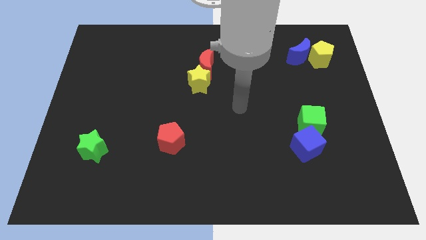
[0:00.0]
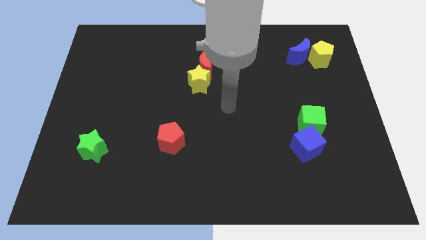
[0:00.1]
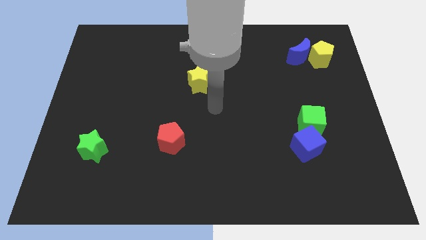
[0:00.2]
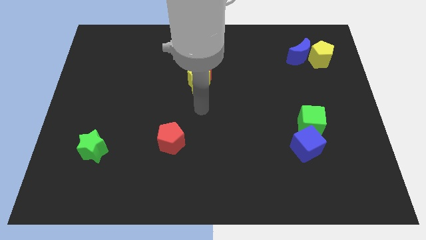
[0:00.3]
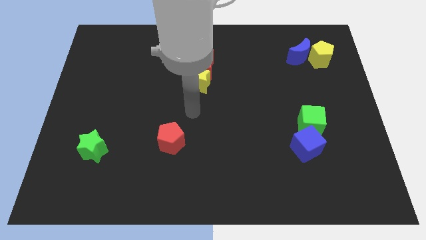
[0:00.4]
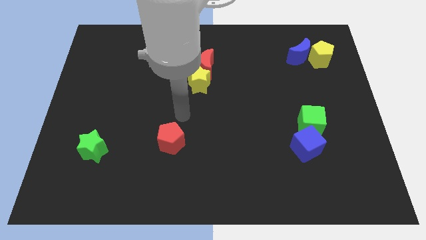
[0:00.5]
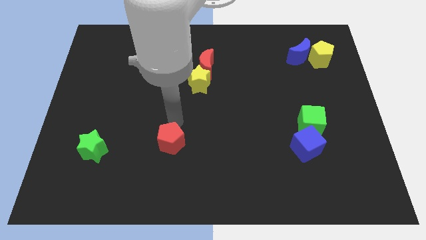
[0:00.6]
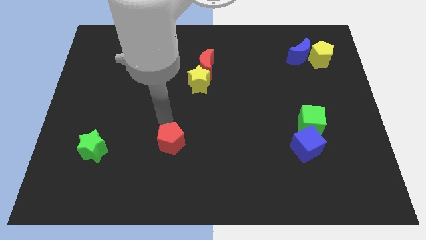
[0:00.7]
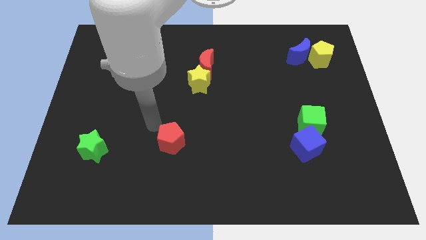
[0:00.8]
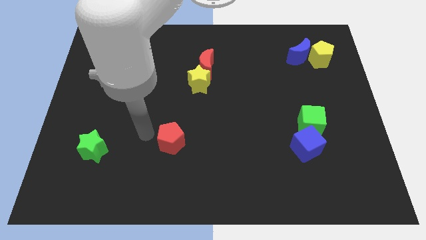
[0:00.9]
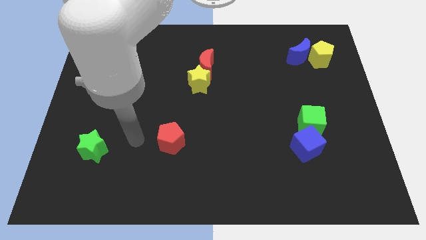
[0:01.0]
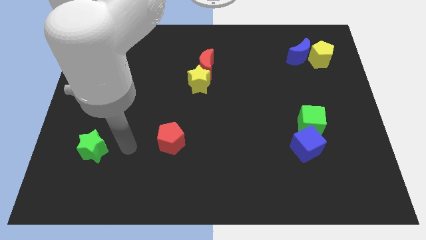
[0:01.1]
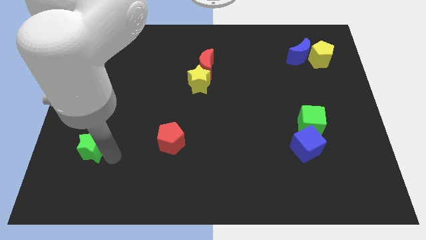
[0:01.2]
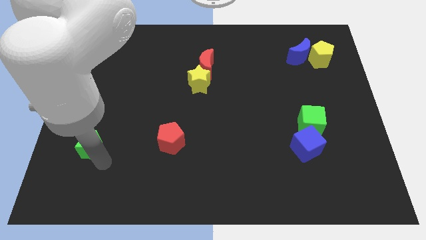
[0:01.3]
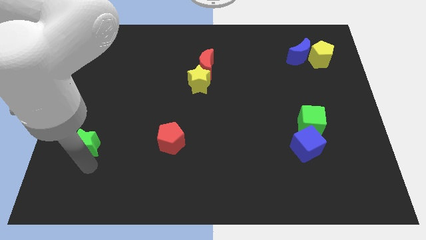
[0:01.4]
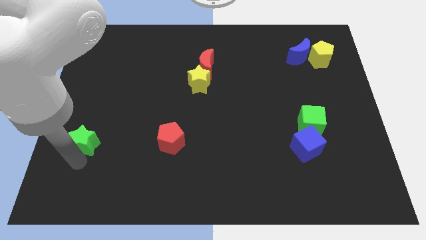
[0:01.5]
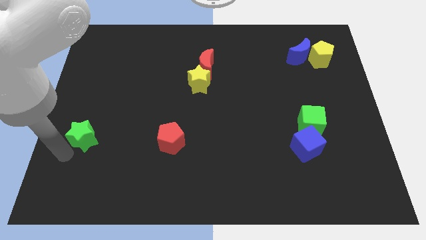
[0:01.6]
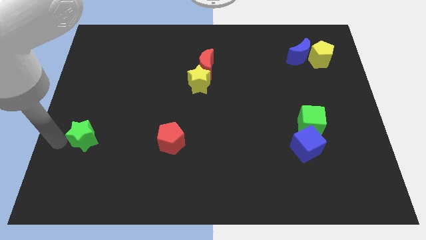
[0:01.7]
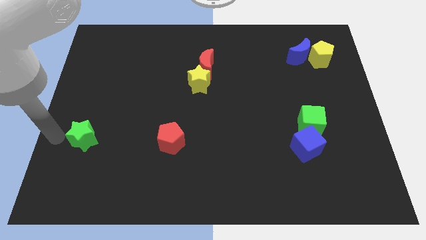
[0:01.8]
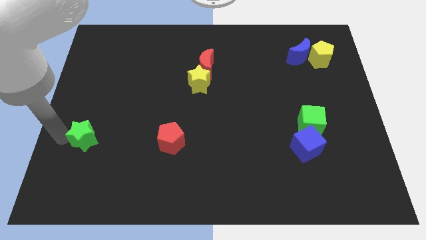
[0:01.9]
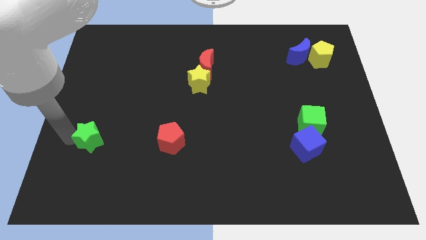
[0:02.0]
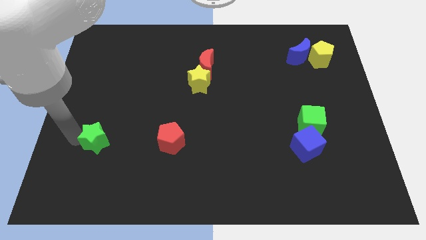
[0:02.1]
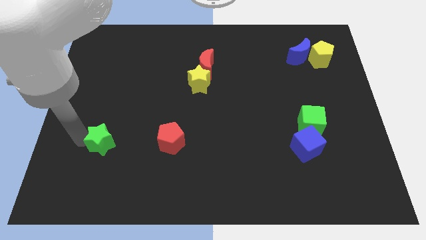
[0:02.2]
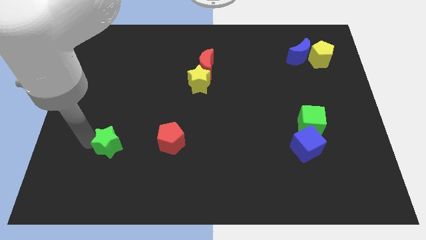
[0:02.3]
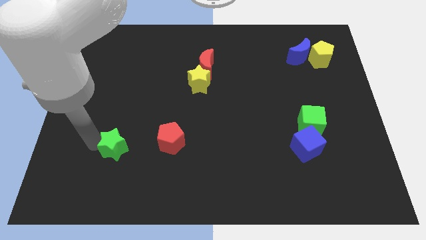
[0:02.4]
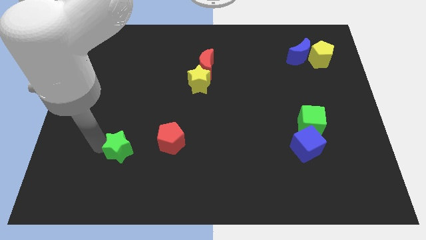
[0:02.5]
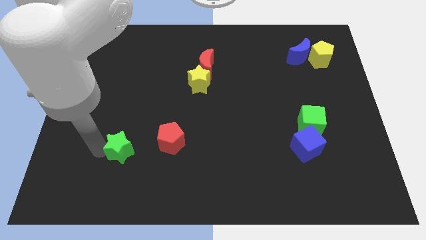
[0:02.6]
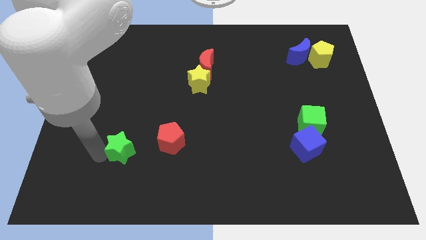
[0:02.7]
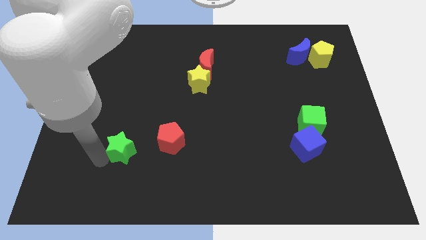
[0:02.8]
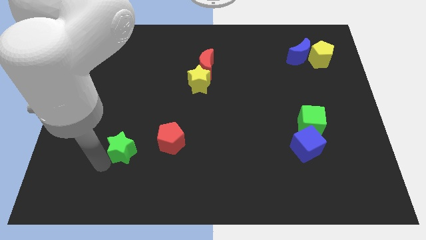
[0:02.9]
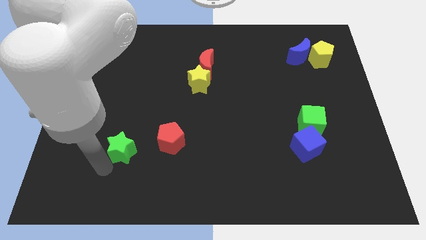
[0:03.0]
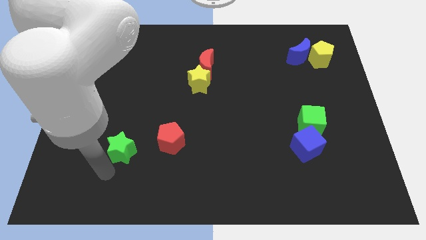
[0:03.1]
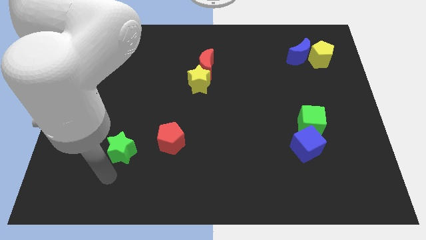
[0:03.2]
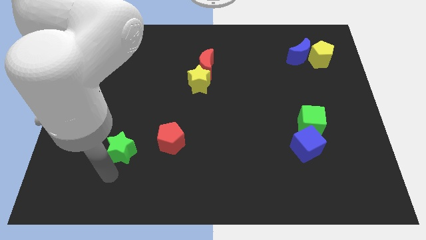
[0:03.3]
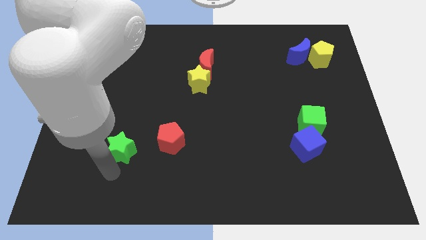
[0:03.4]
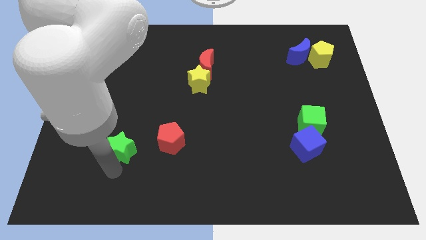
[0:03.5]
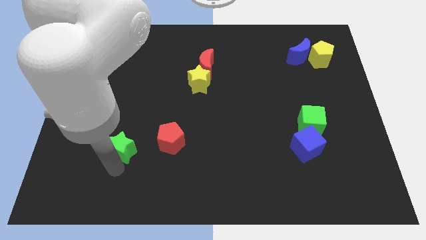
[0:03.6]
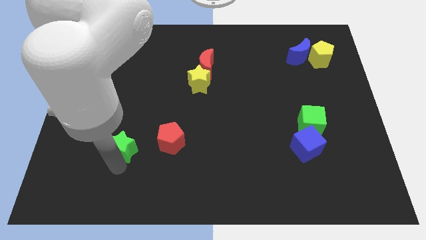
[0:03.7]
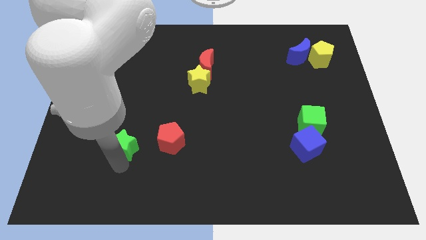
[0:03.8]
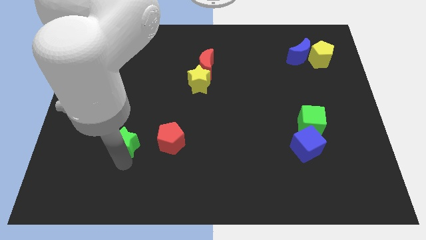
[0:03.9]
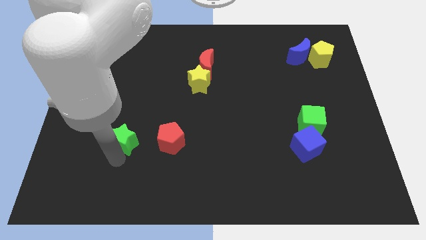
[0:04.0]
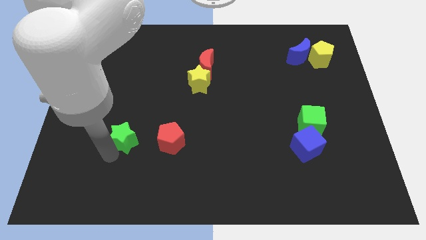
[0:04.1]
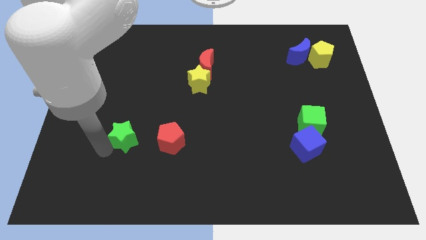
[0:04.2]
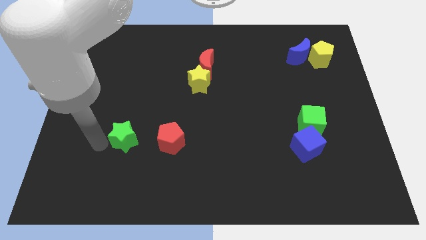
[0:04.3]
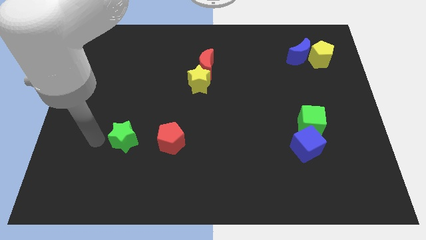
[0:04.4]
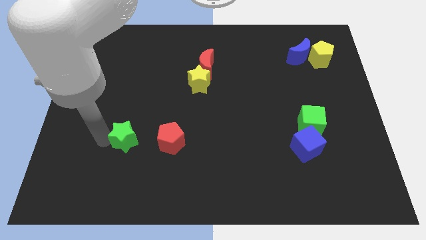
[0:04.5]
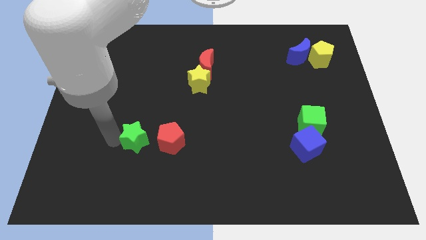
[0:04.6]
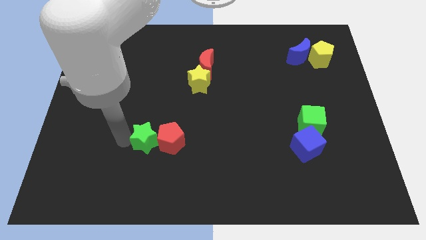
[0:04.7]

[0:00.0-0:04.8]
slide the green star to the red pentagon

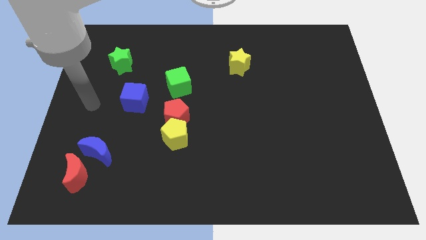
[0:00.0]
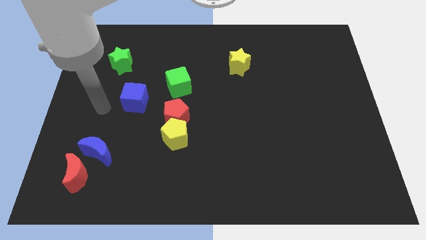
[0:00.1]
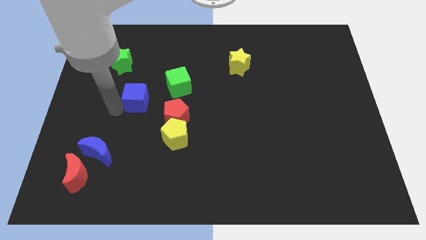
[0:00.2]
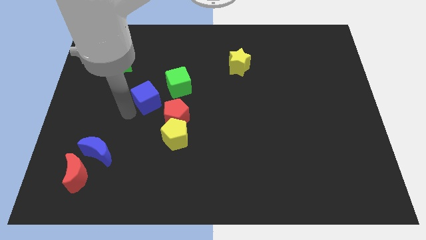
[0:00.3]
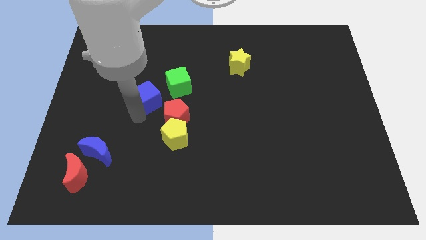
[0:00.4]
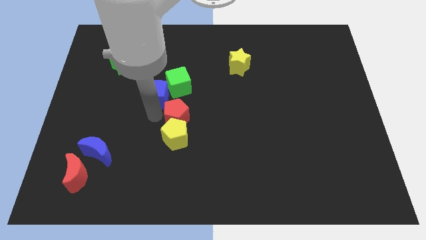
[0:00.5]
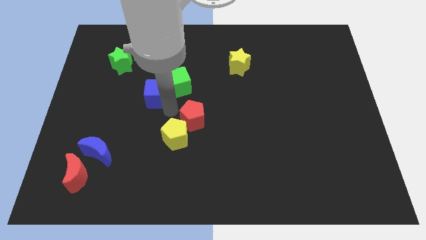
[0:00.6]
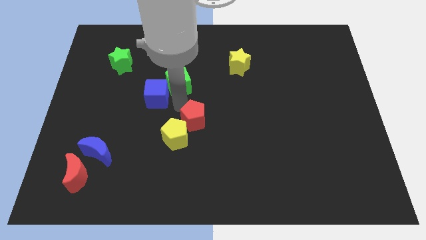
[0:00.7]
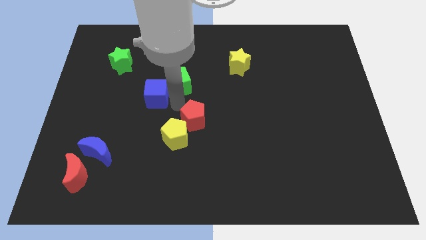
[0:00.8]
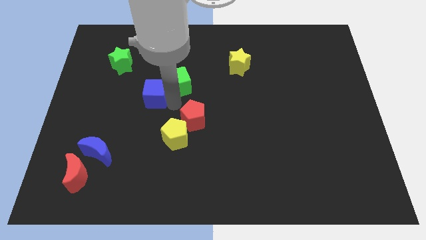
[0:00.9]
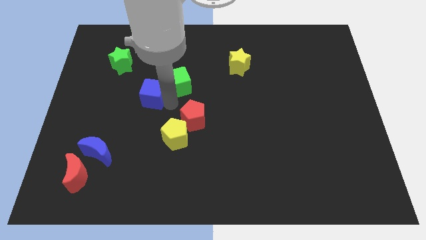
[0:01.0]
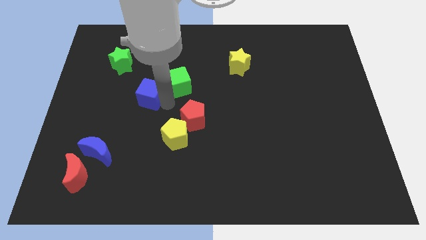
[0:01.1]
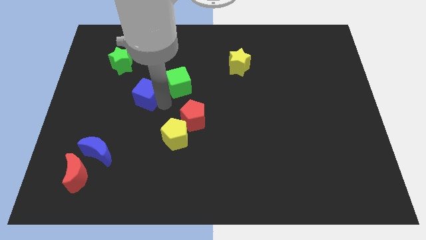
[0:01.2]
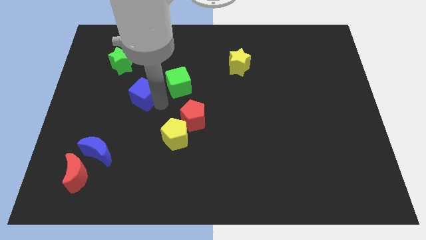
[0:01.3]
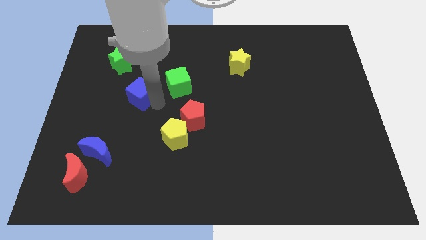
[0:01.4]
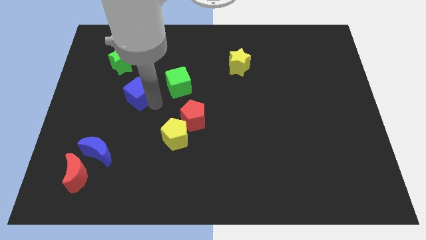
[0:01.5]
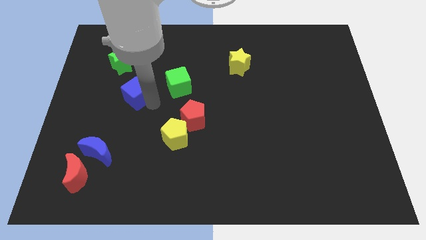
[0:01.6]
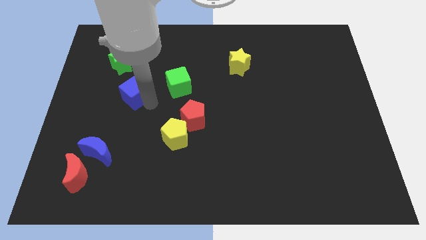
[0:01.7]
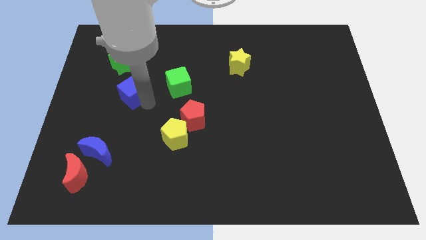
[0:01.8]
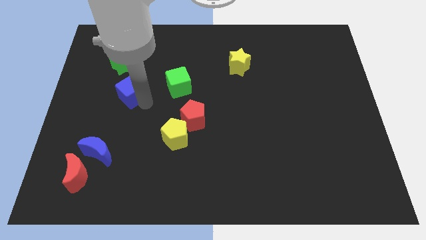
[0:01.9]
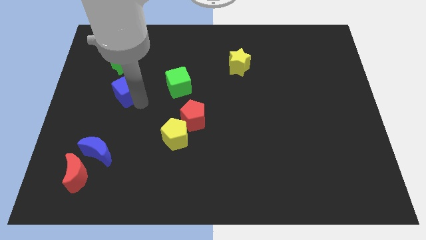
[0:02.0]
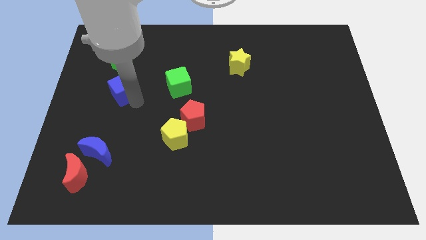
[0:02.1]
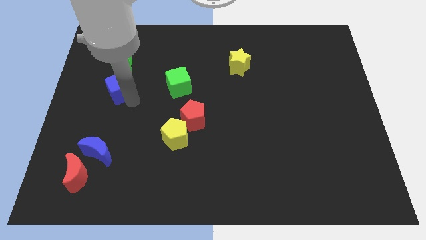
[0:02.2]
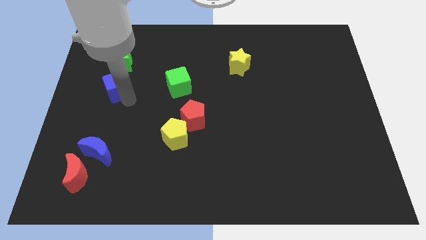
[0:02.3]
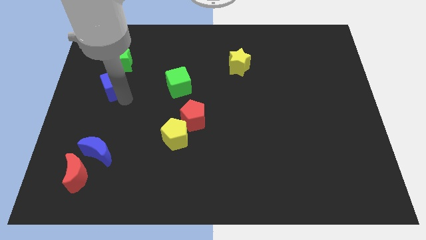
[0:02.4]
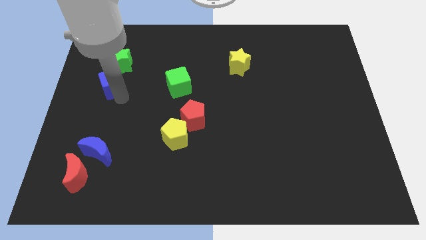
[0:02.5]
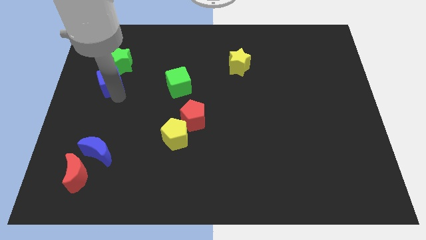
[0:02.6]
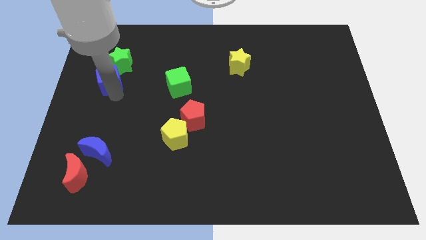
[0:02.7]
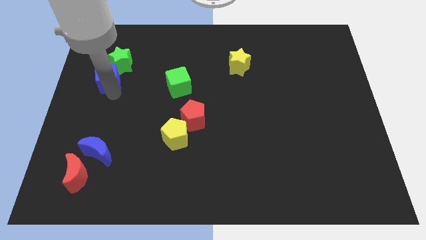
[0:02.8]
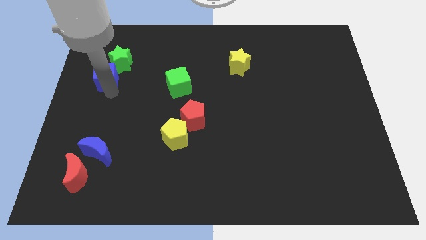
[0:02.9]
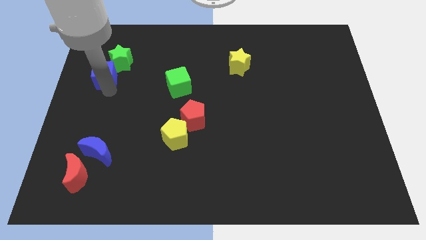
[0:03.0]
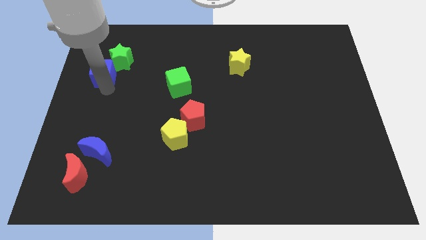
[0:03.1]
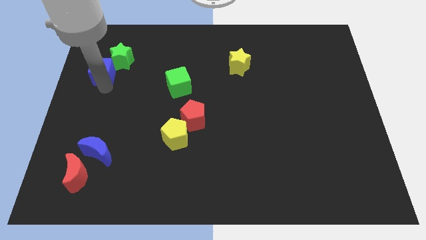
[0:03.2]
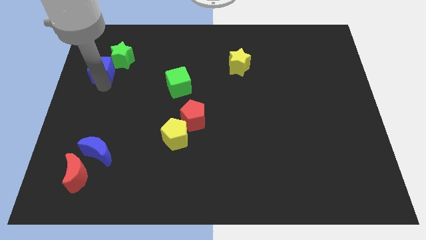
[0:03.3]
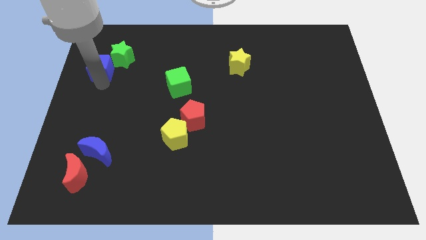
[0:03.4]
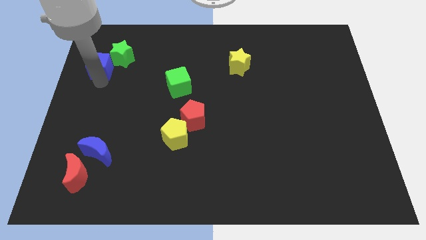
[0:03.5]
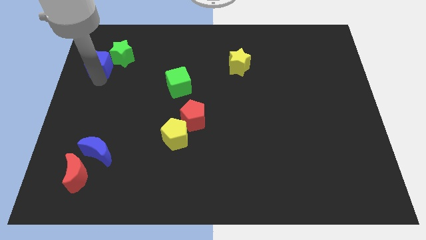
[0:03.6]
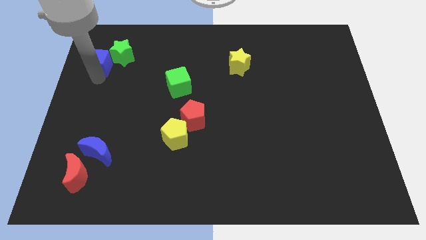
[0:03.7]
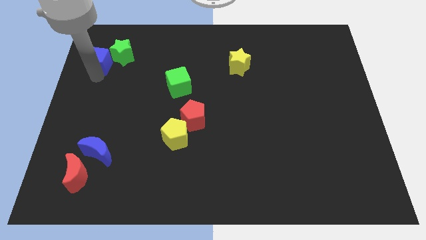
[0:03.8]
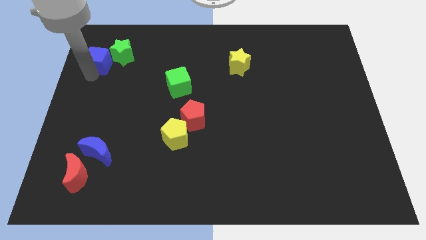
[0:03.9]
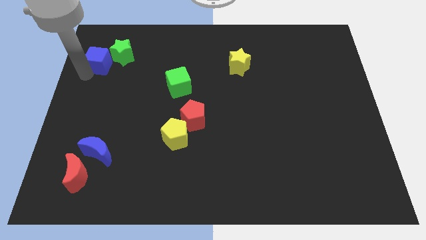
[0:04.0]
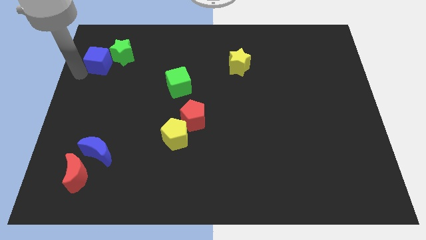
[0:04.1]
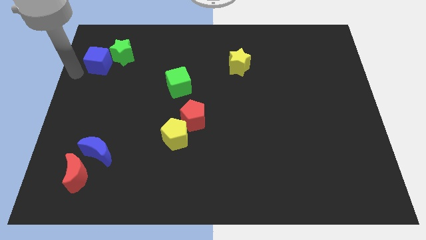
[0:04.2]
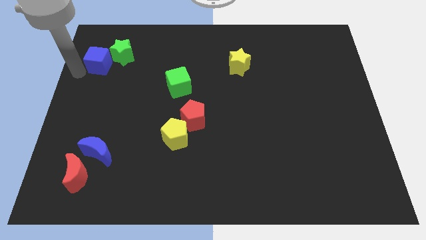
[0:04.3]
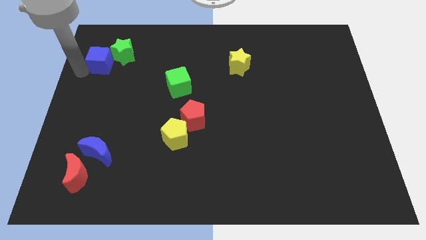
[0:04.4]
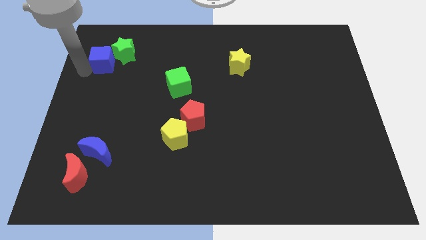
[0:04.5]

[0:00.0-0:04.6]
push the blue cube towards the green star
